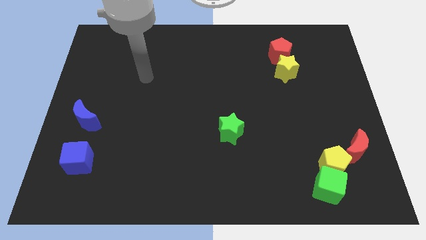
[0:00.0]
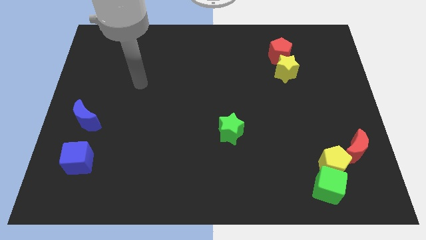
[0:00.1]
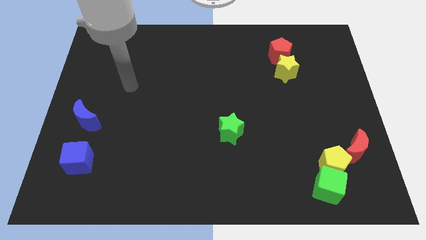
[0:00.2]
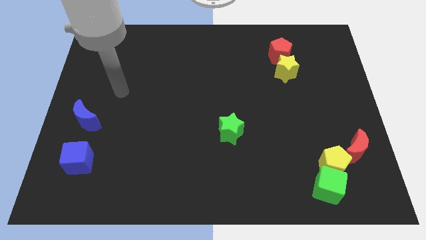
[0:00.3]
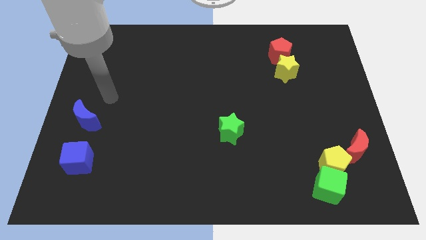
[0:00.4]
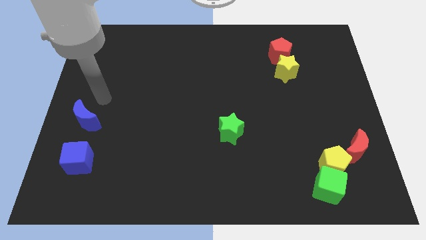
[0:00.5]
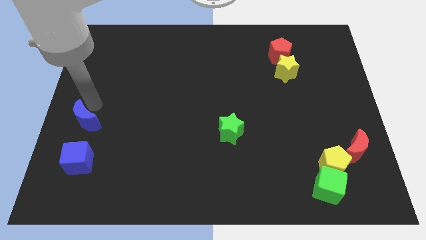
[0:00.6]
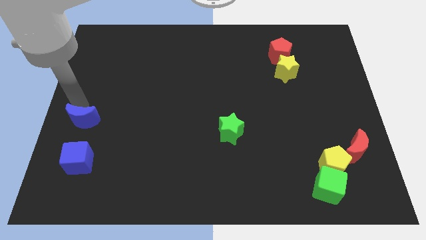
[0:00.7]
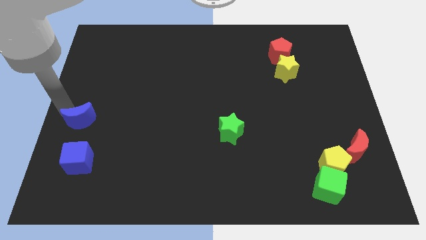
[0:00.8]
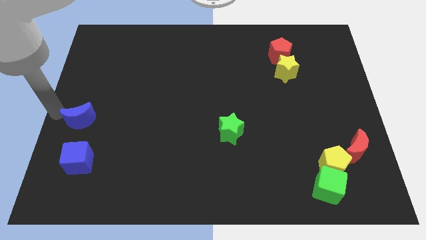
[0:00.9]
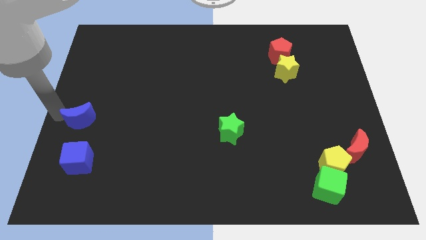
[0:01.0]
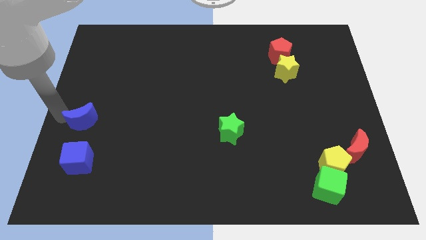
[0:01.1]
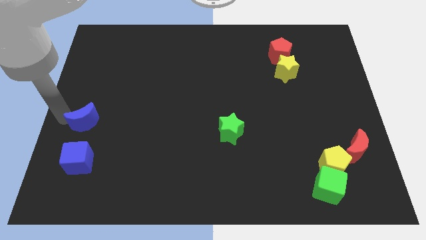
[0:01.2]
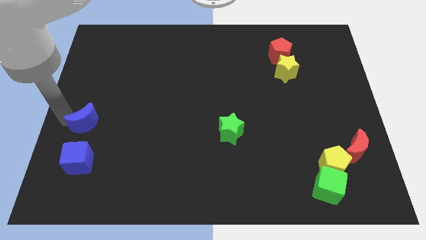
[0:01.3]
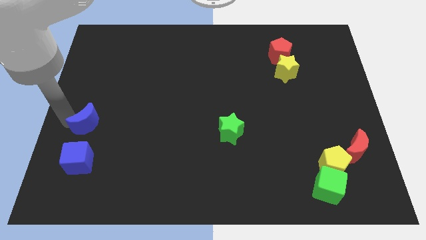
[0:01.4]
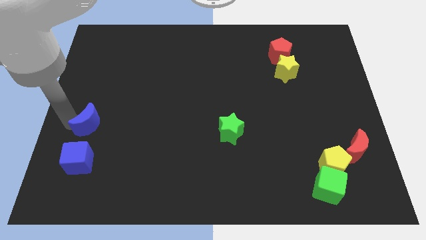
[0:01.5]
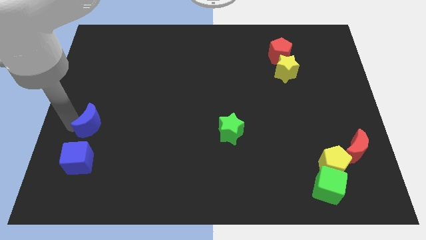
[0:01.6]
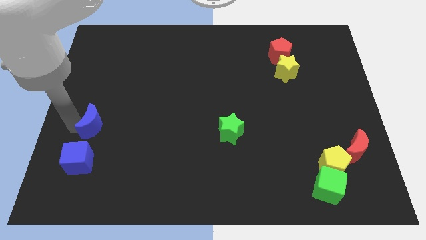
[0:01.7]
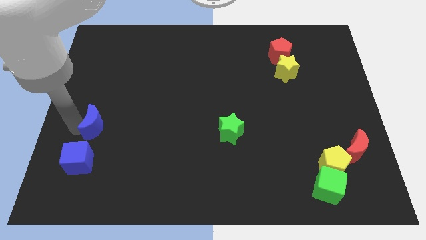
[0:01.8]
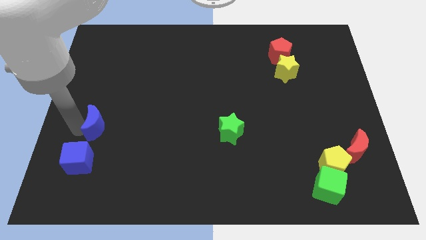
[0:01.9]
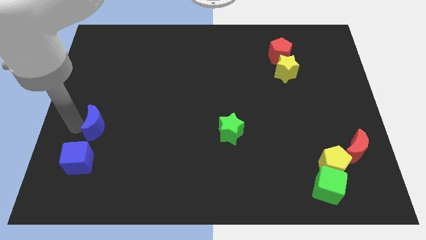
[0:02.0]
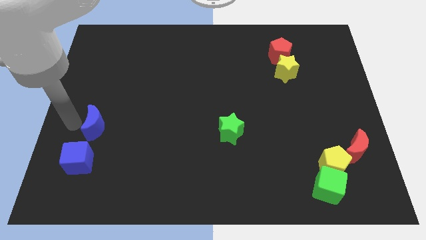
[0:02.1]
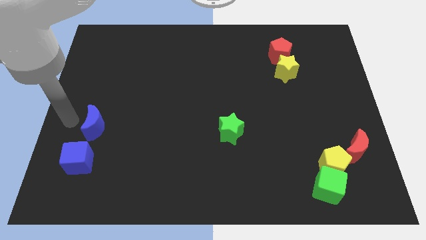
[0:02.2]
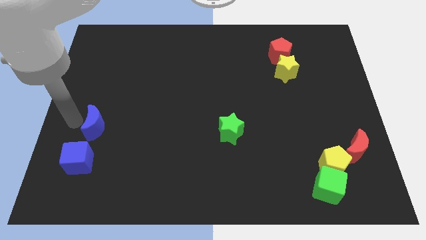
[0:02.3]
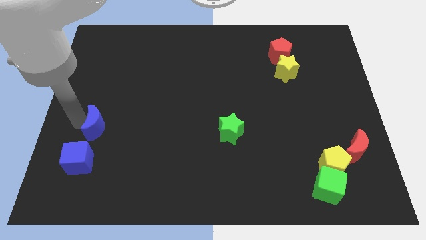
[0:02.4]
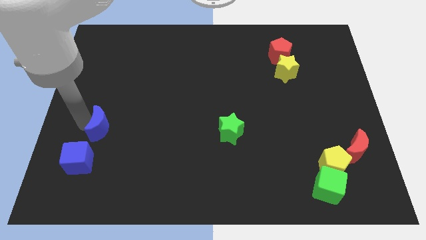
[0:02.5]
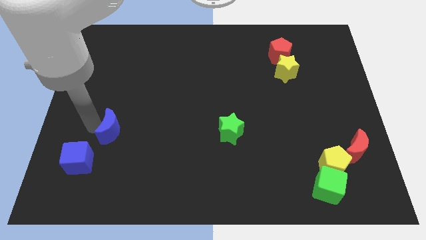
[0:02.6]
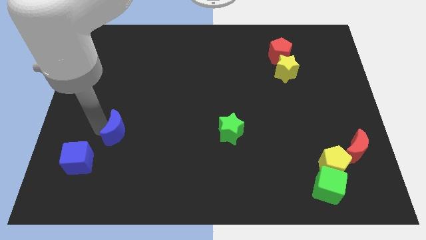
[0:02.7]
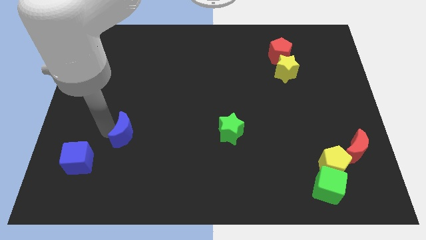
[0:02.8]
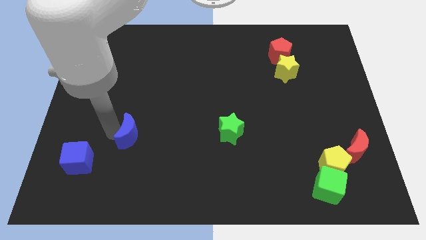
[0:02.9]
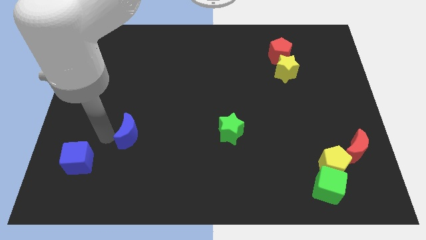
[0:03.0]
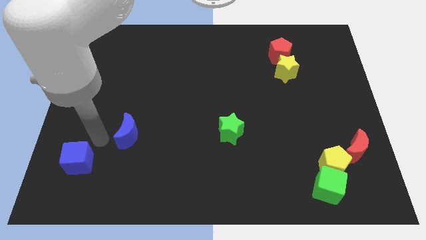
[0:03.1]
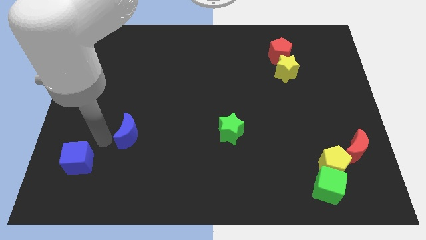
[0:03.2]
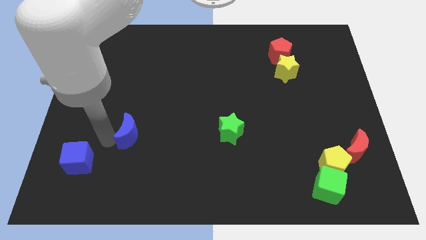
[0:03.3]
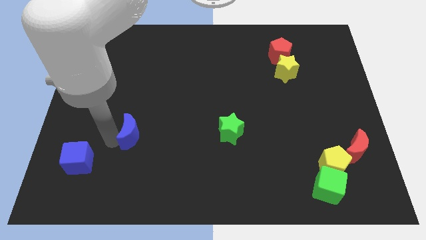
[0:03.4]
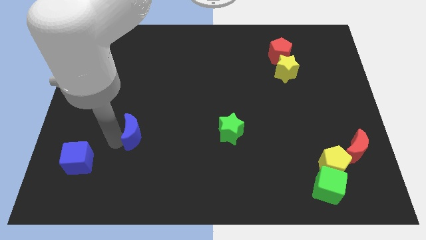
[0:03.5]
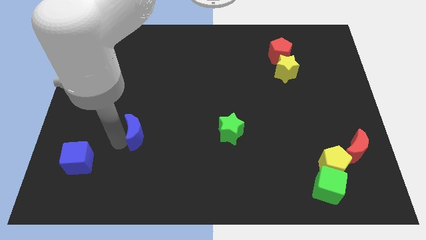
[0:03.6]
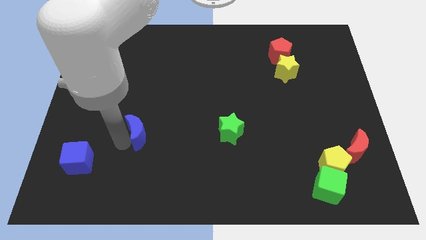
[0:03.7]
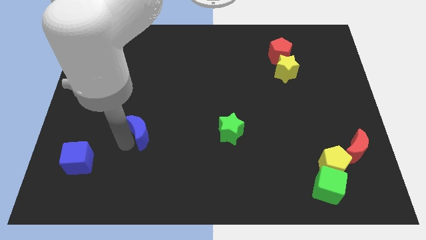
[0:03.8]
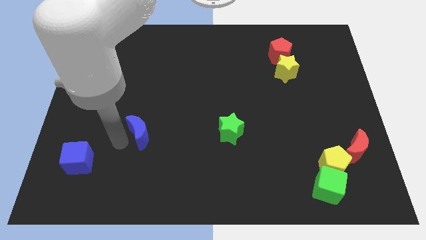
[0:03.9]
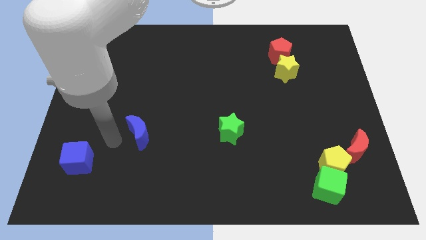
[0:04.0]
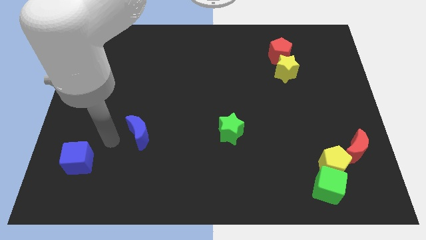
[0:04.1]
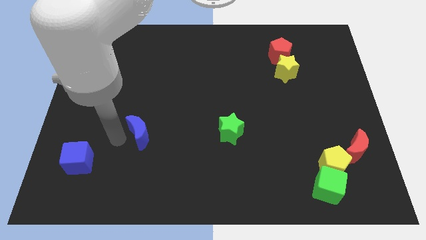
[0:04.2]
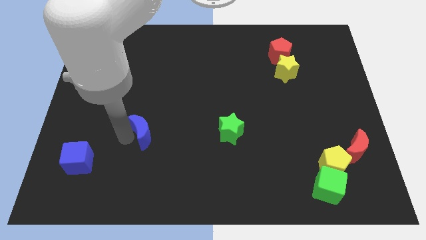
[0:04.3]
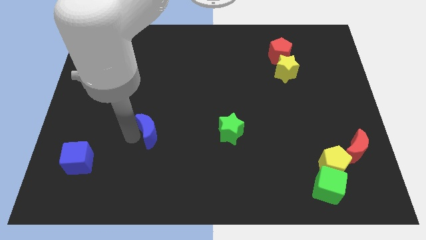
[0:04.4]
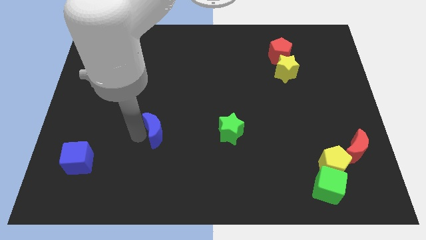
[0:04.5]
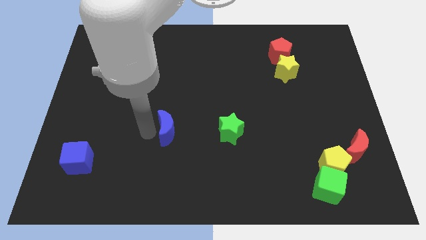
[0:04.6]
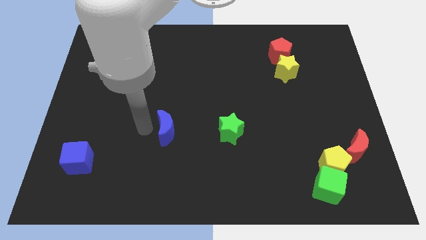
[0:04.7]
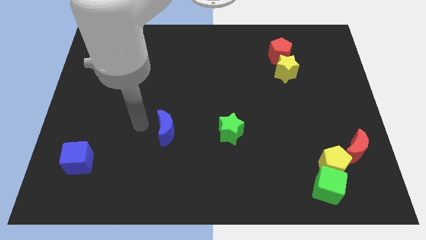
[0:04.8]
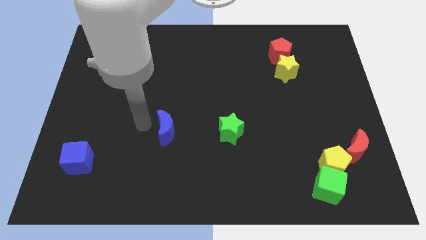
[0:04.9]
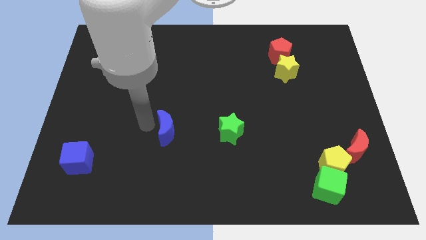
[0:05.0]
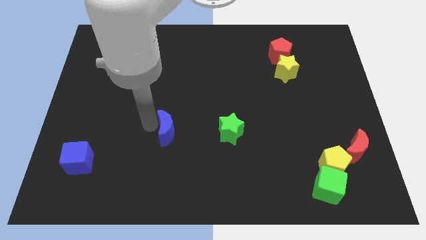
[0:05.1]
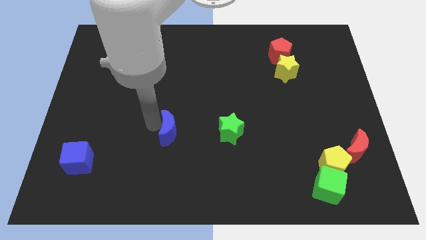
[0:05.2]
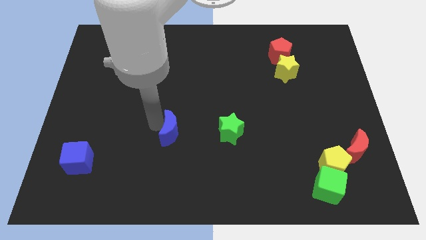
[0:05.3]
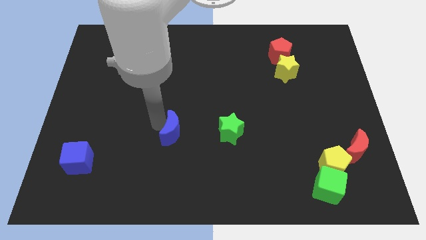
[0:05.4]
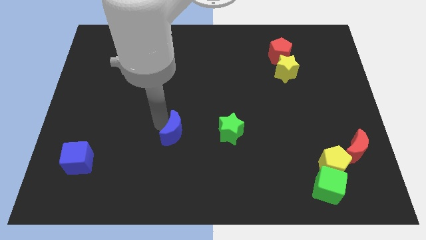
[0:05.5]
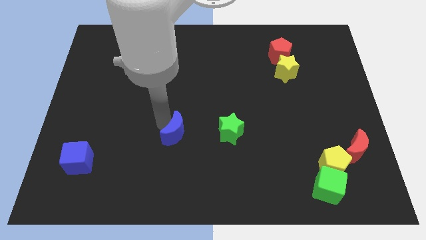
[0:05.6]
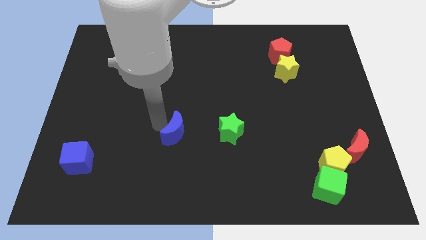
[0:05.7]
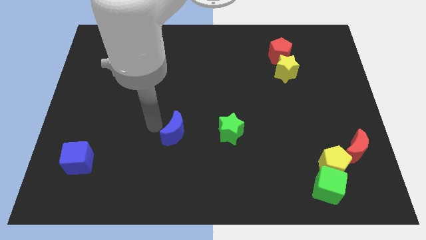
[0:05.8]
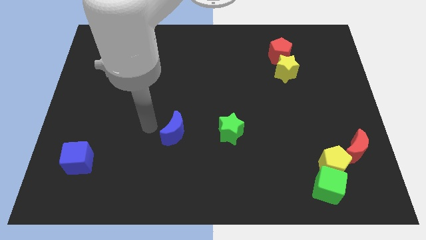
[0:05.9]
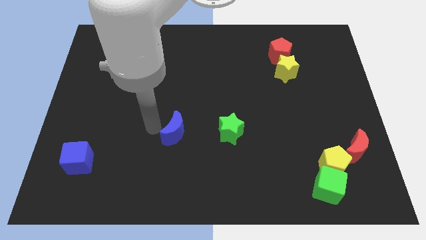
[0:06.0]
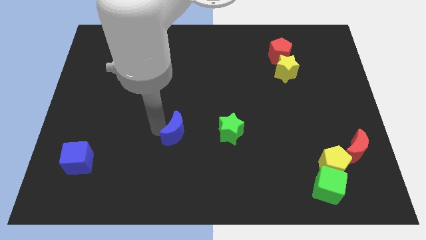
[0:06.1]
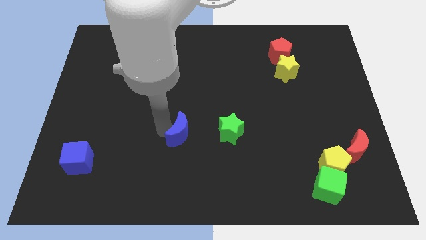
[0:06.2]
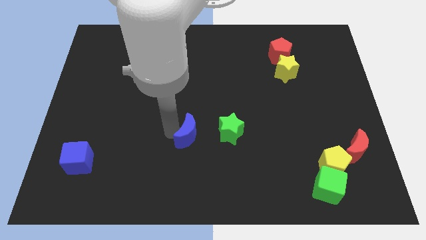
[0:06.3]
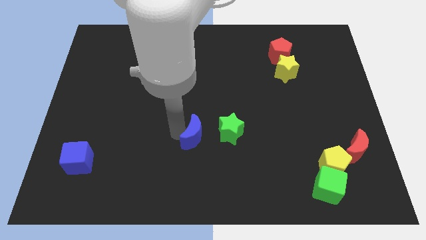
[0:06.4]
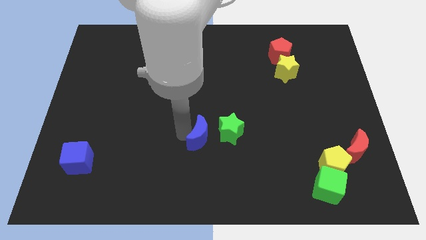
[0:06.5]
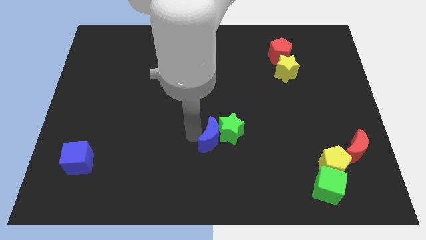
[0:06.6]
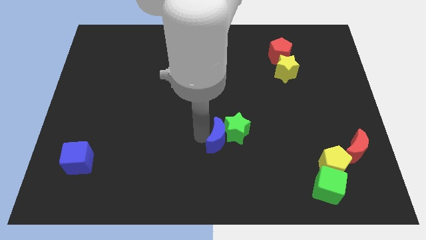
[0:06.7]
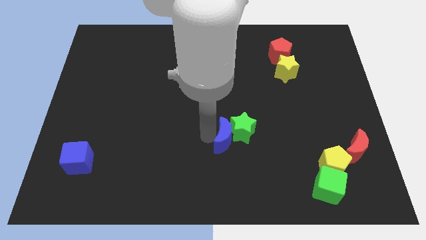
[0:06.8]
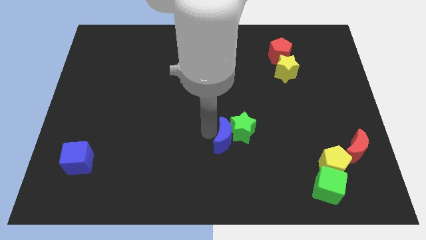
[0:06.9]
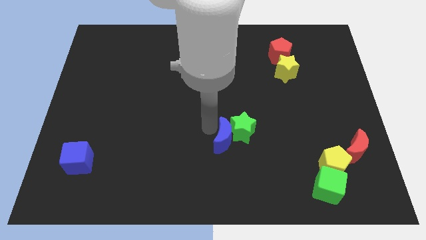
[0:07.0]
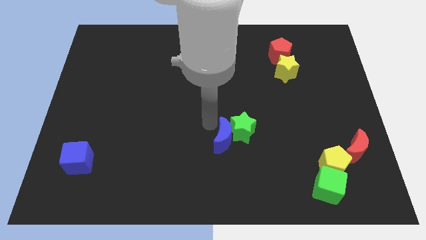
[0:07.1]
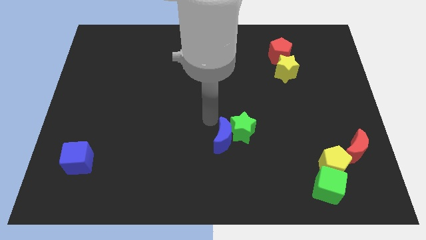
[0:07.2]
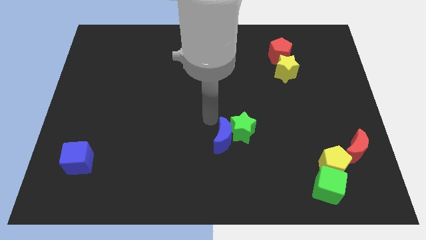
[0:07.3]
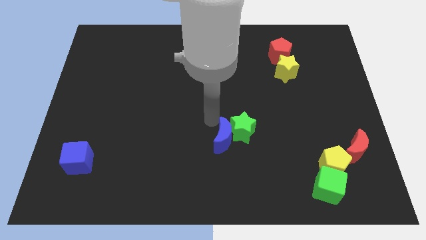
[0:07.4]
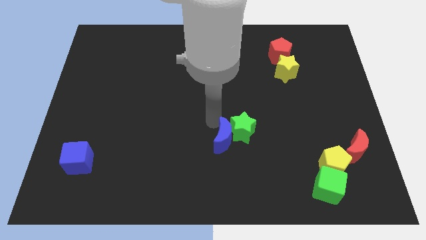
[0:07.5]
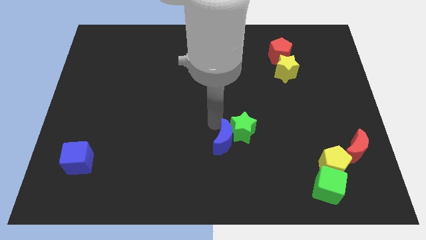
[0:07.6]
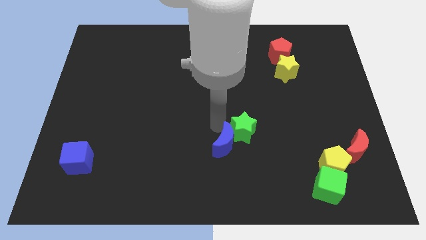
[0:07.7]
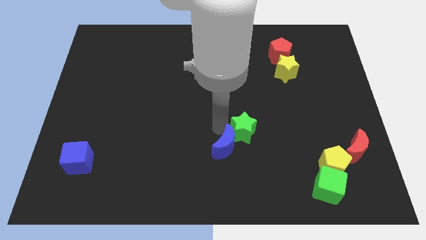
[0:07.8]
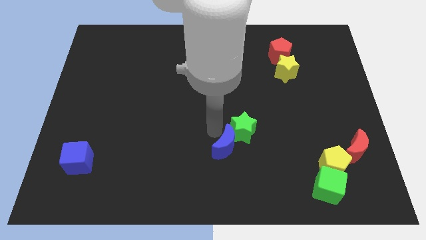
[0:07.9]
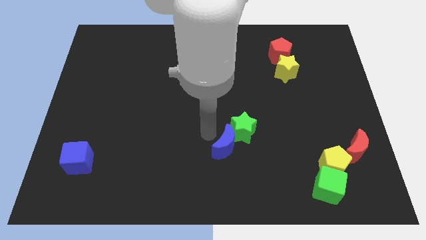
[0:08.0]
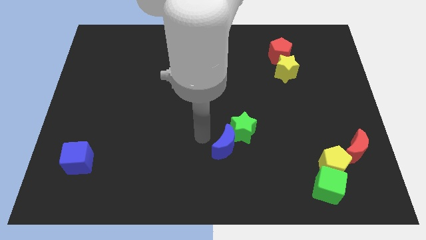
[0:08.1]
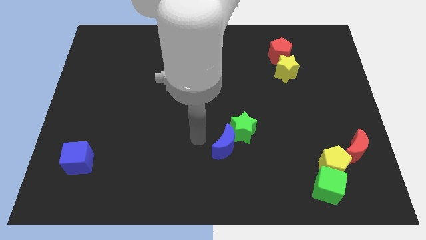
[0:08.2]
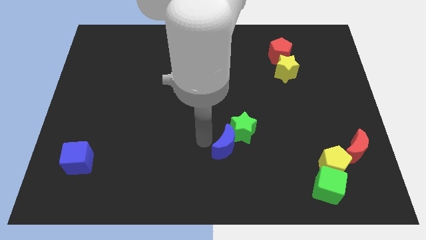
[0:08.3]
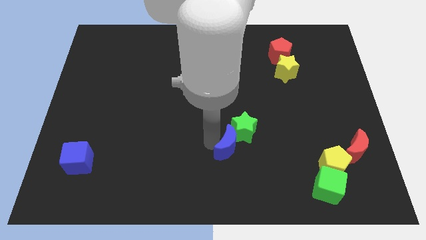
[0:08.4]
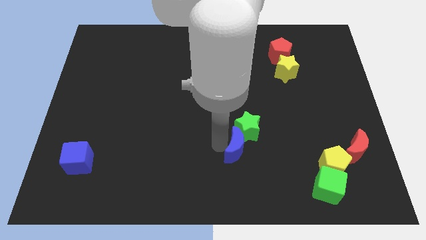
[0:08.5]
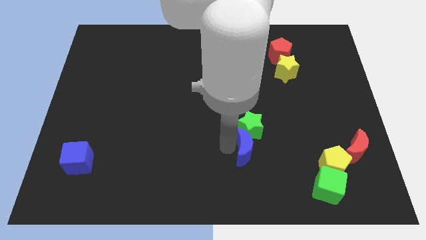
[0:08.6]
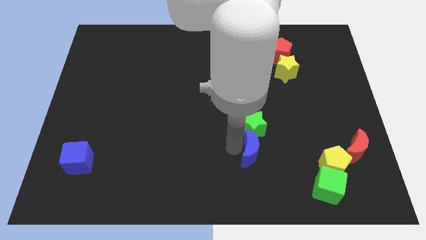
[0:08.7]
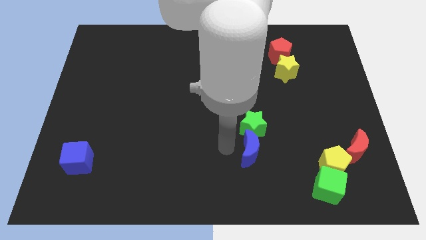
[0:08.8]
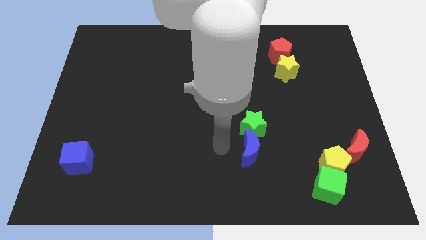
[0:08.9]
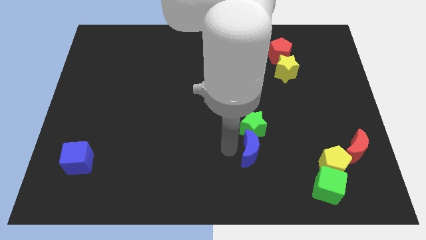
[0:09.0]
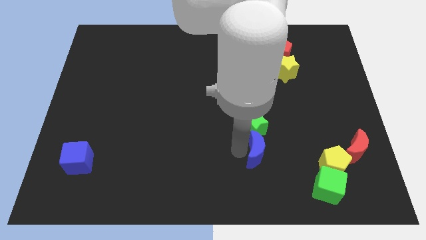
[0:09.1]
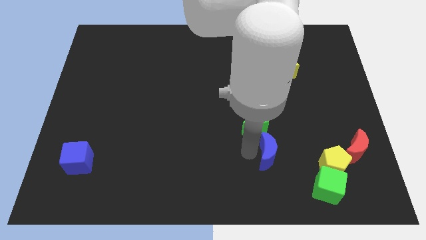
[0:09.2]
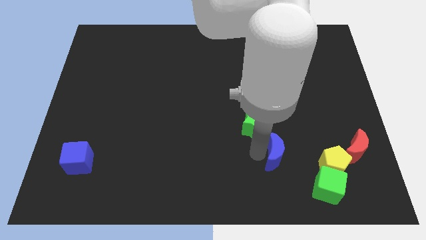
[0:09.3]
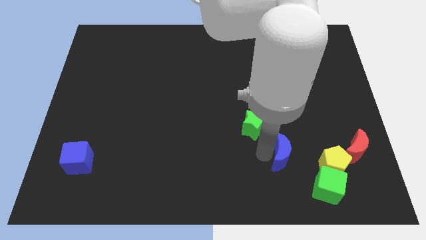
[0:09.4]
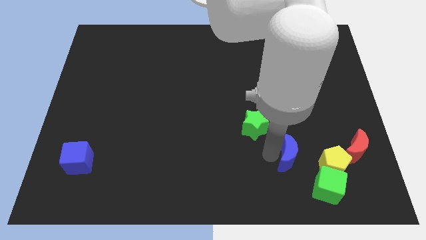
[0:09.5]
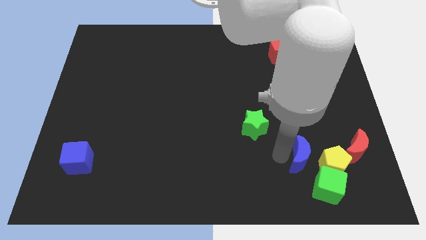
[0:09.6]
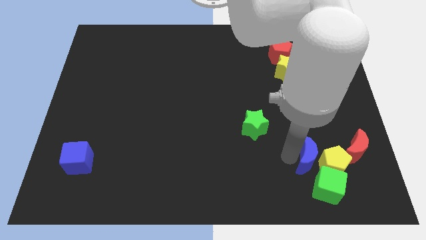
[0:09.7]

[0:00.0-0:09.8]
move the blue moon towards the yellow pentagon
